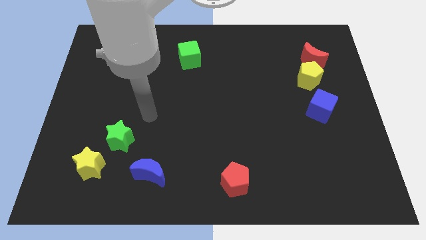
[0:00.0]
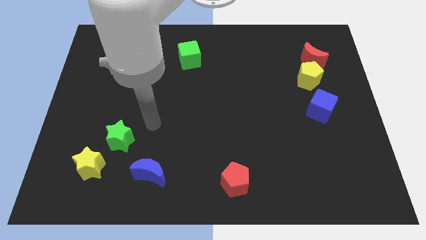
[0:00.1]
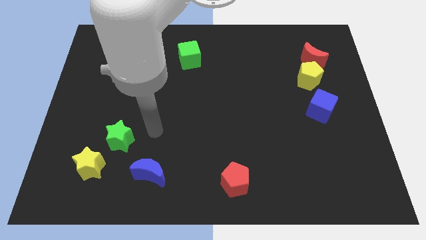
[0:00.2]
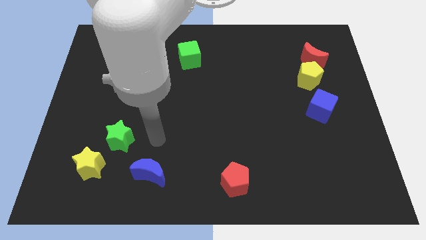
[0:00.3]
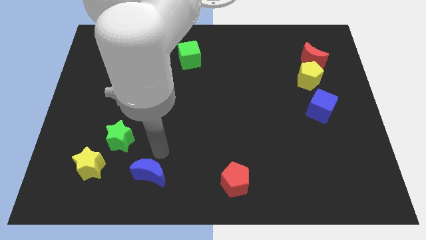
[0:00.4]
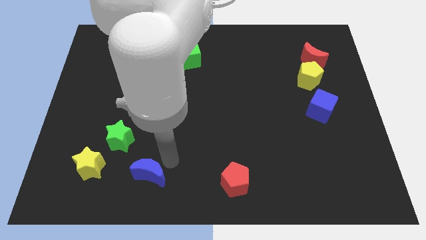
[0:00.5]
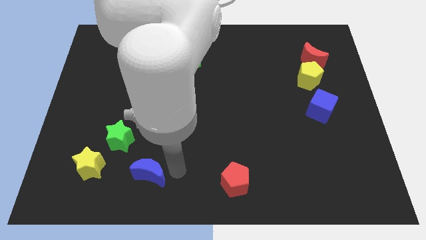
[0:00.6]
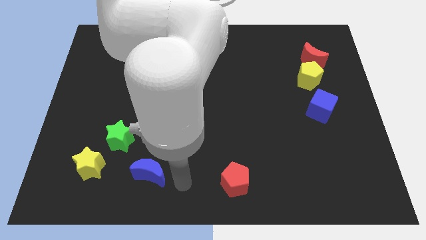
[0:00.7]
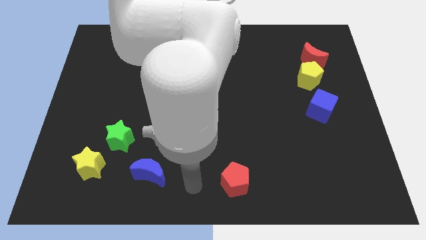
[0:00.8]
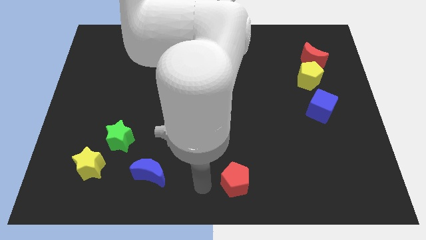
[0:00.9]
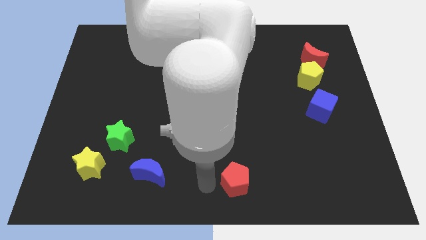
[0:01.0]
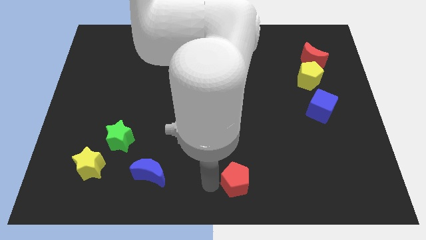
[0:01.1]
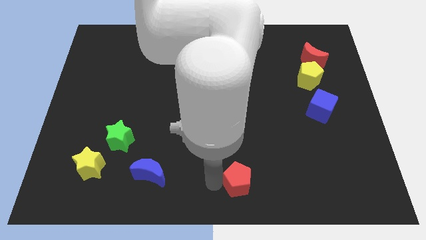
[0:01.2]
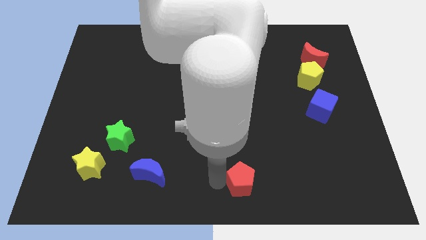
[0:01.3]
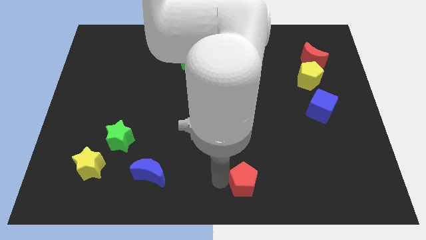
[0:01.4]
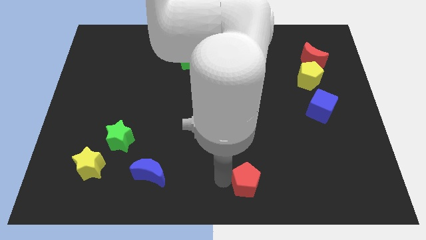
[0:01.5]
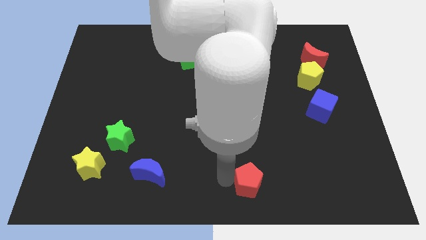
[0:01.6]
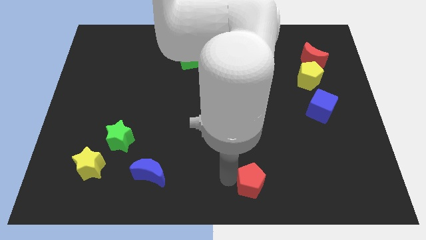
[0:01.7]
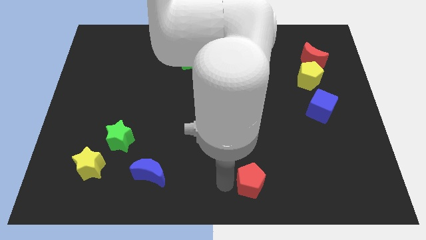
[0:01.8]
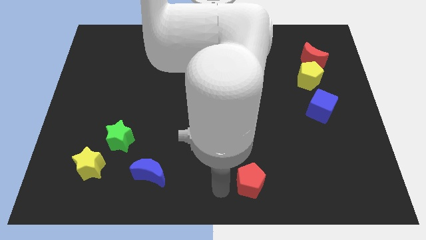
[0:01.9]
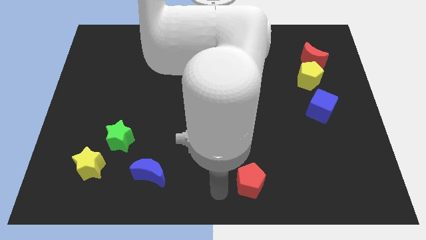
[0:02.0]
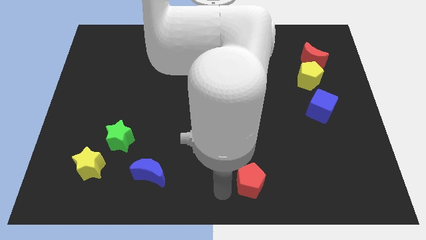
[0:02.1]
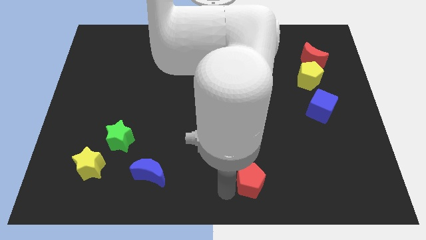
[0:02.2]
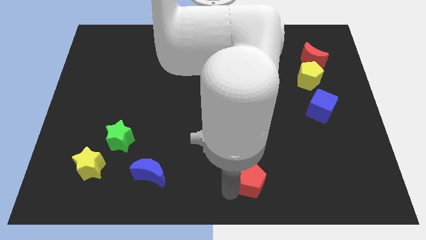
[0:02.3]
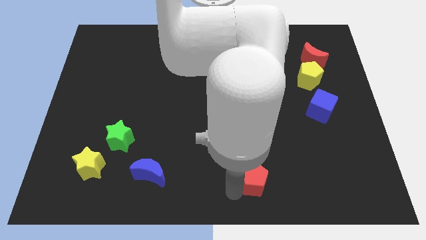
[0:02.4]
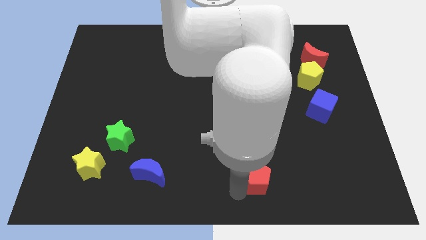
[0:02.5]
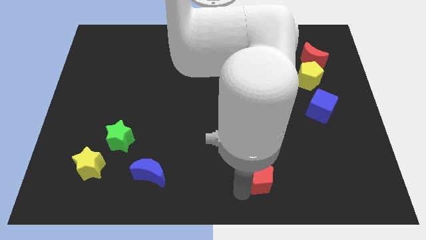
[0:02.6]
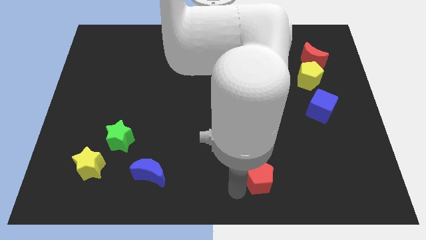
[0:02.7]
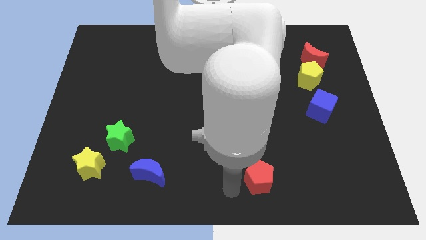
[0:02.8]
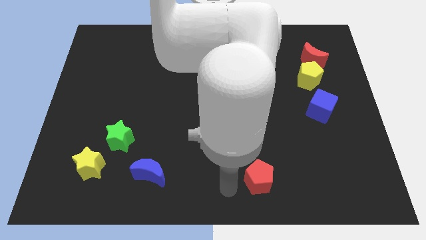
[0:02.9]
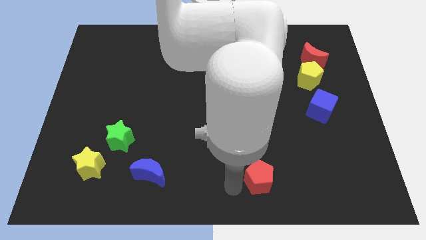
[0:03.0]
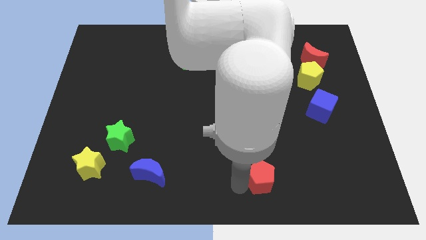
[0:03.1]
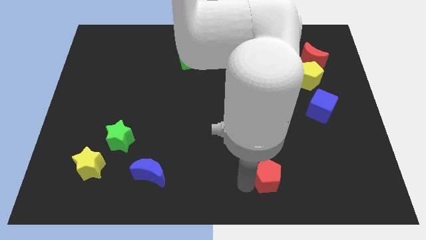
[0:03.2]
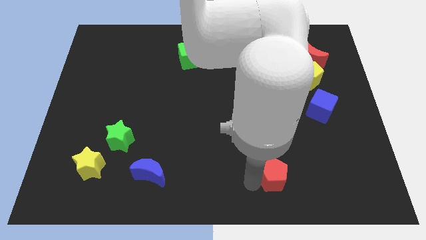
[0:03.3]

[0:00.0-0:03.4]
push the red pentagon right somewhat

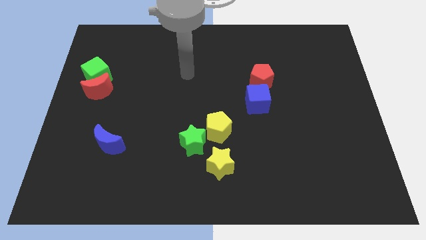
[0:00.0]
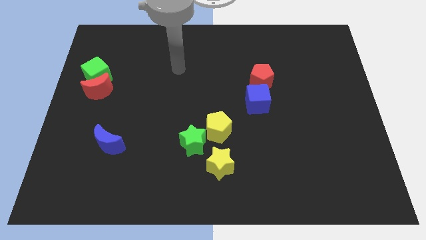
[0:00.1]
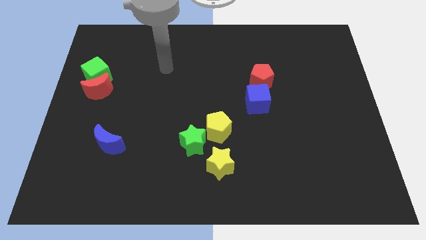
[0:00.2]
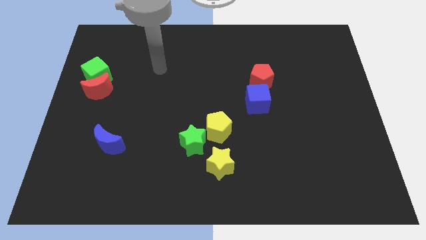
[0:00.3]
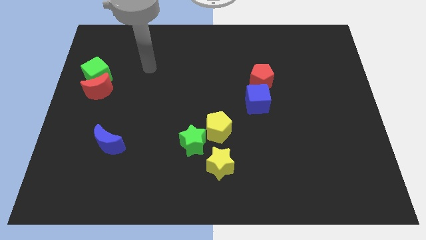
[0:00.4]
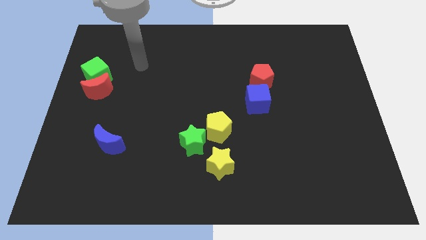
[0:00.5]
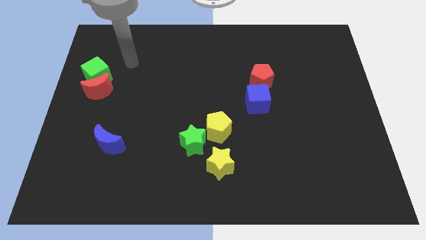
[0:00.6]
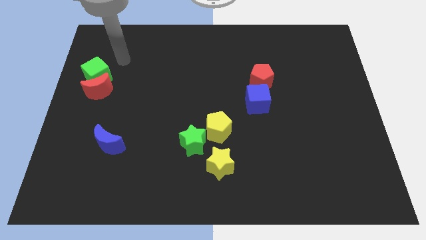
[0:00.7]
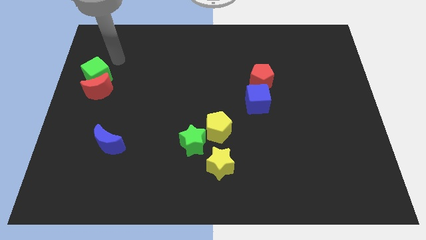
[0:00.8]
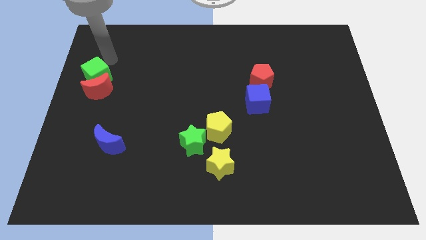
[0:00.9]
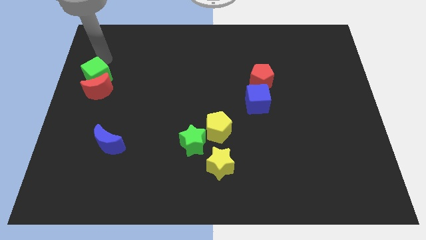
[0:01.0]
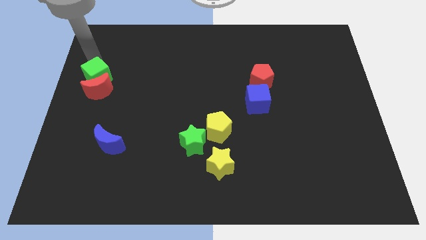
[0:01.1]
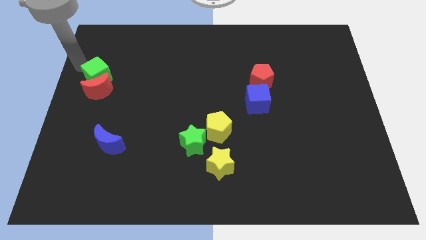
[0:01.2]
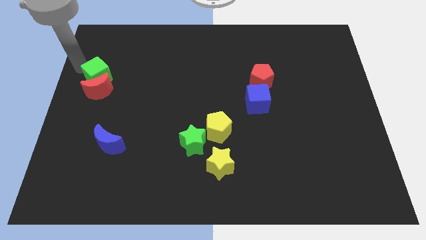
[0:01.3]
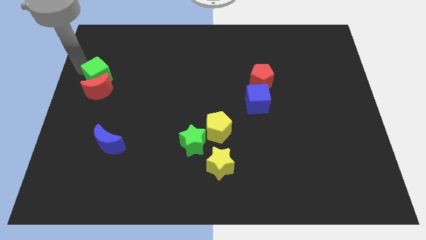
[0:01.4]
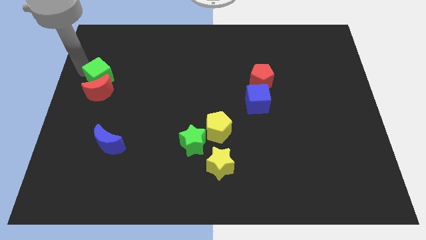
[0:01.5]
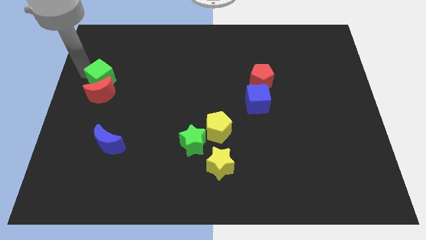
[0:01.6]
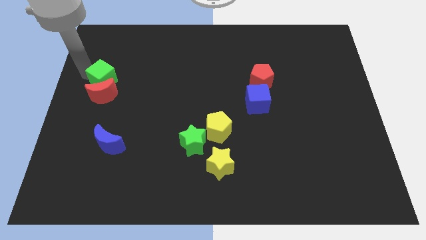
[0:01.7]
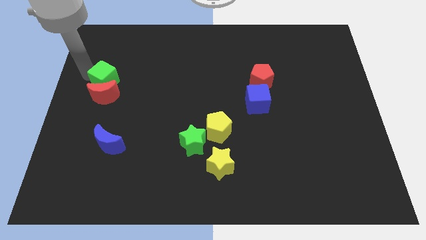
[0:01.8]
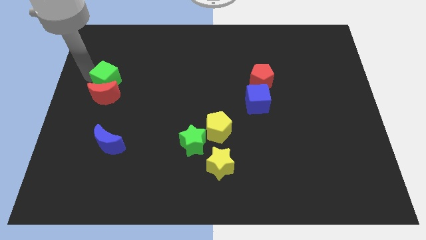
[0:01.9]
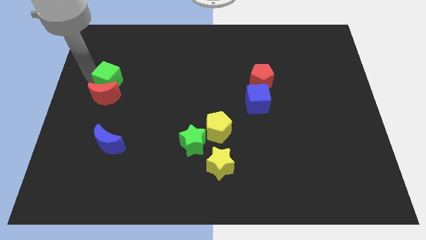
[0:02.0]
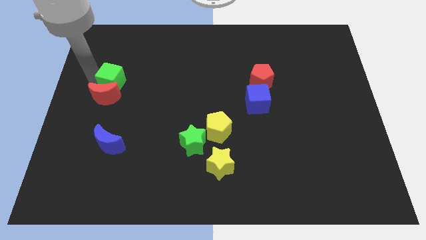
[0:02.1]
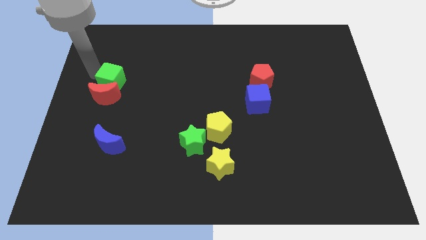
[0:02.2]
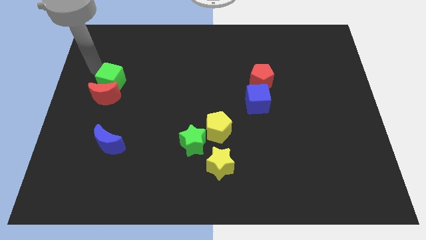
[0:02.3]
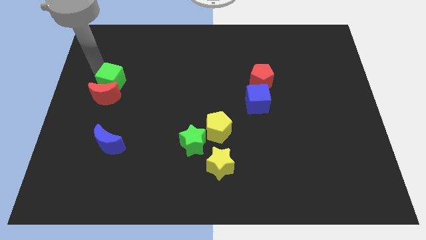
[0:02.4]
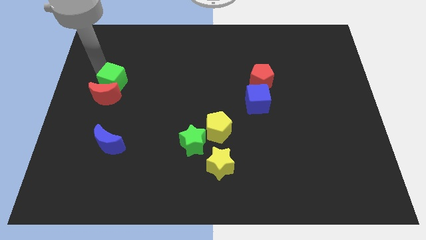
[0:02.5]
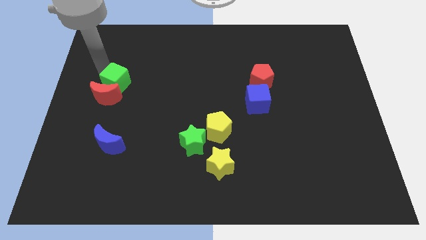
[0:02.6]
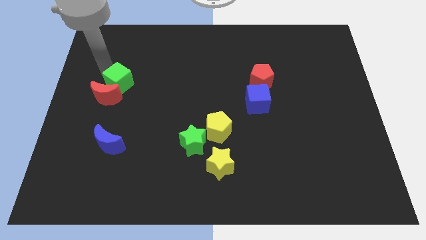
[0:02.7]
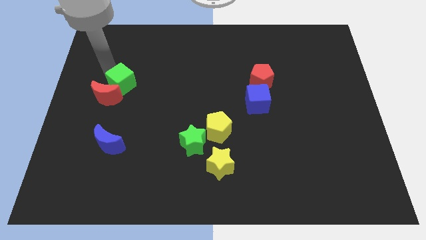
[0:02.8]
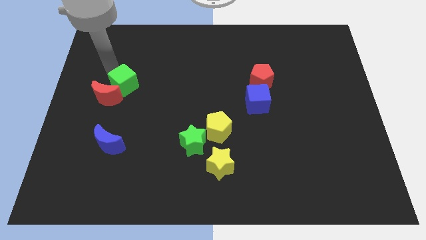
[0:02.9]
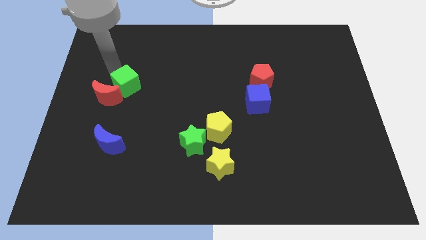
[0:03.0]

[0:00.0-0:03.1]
move the green cube a little bit downwards and to the right

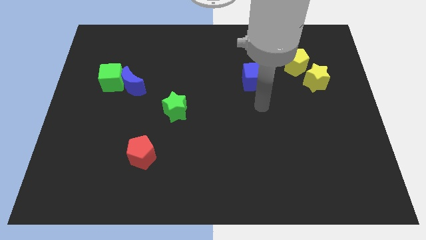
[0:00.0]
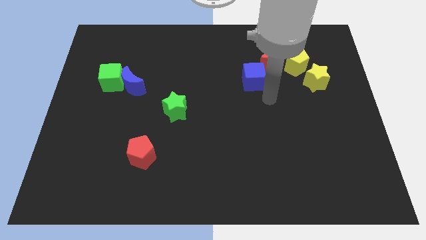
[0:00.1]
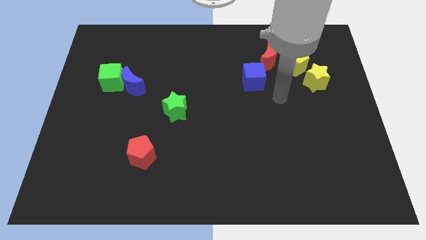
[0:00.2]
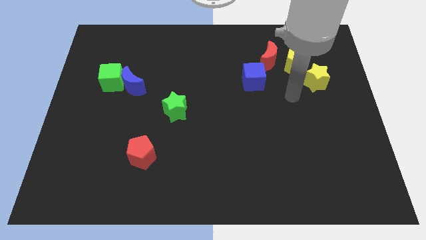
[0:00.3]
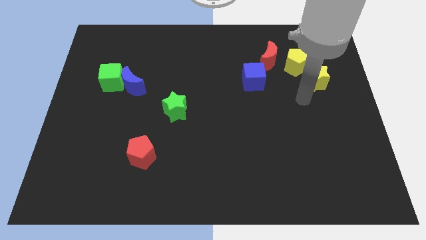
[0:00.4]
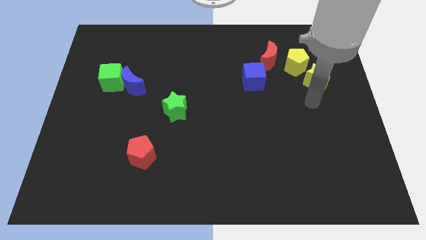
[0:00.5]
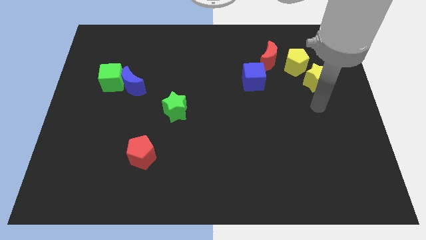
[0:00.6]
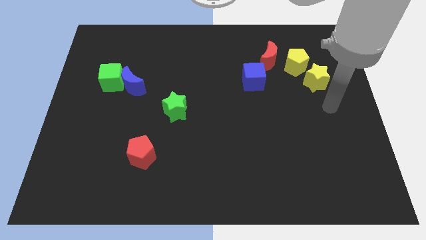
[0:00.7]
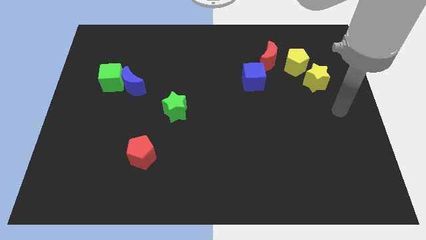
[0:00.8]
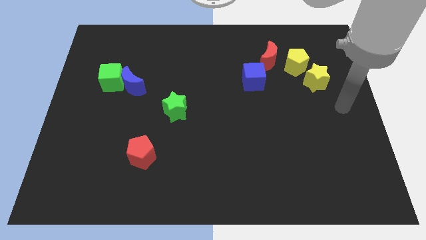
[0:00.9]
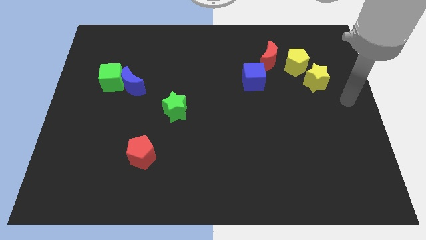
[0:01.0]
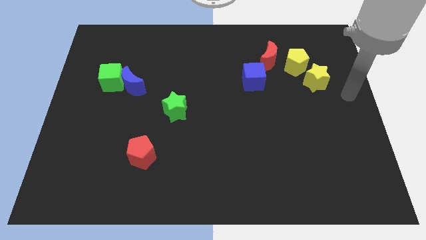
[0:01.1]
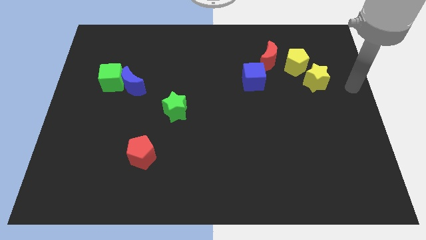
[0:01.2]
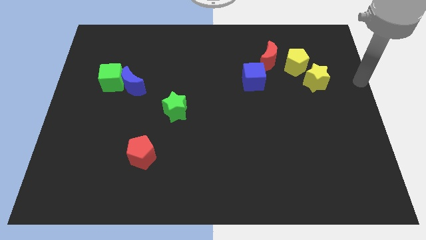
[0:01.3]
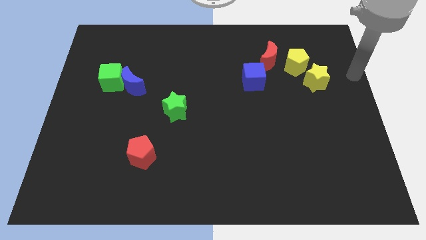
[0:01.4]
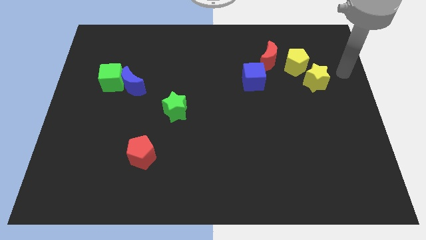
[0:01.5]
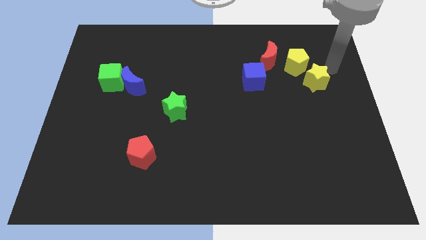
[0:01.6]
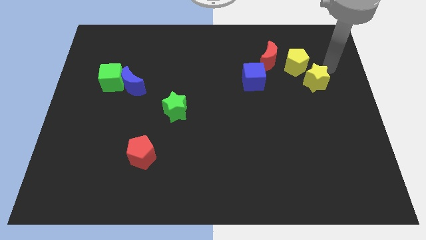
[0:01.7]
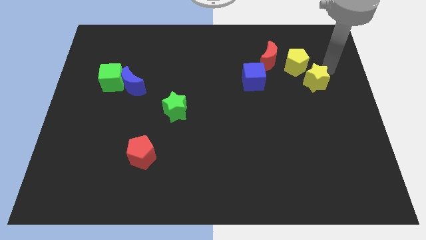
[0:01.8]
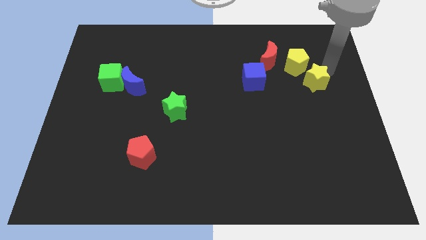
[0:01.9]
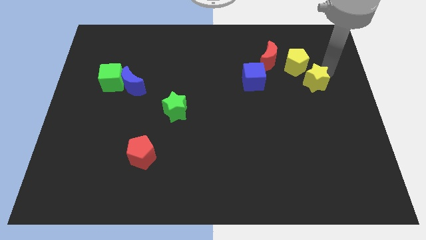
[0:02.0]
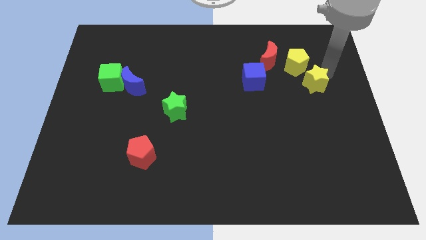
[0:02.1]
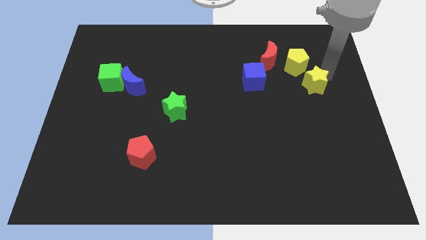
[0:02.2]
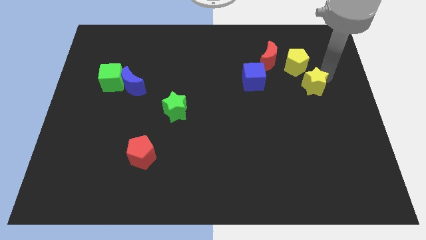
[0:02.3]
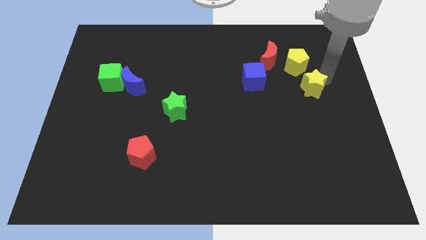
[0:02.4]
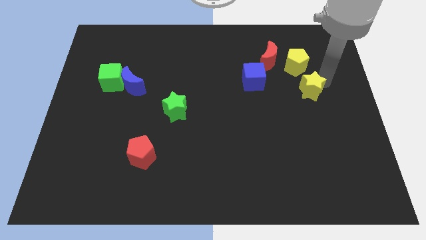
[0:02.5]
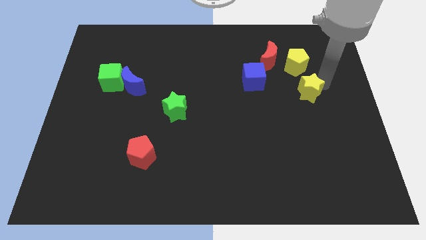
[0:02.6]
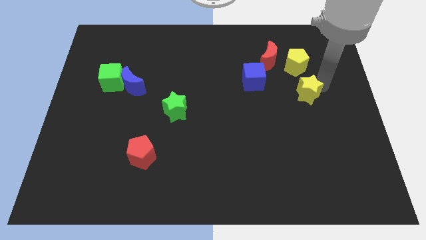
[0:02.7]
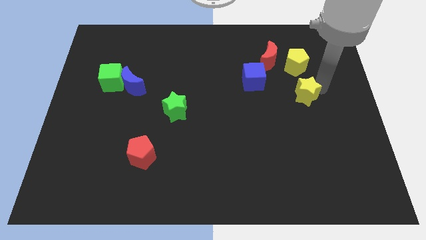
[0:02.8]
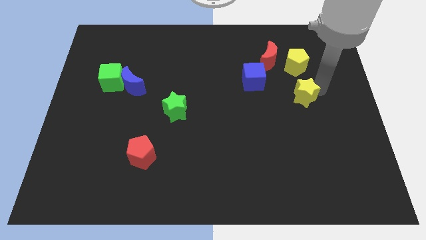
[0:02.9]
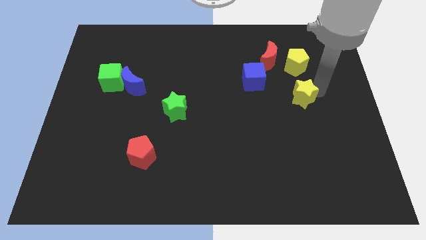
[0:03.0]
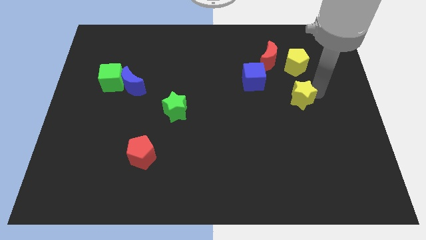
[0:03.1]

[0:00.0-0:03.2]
slightly push the yellow star down and to the left
